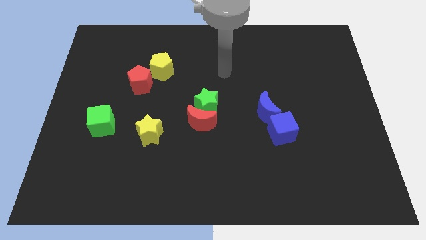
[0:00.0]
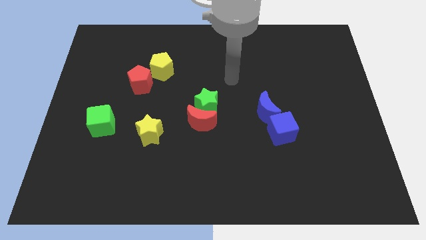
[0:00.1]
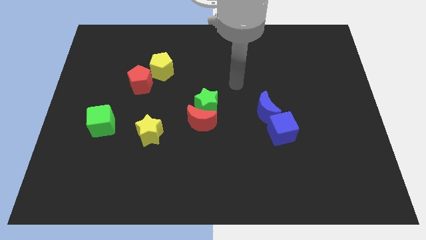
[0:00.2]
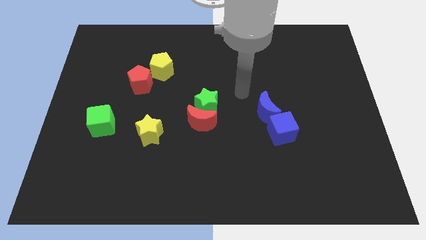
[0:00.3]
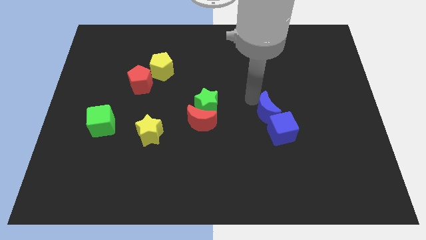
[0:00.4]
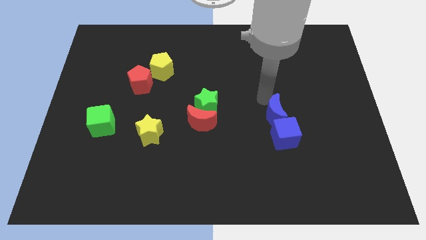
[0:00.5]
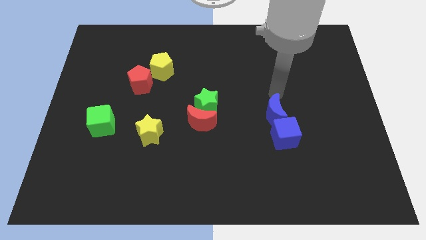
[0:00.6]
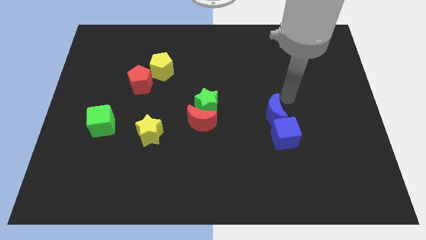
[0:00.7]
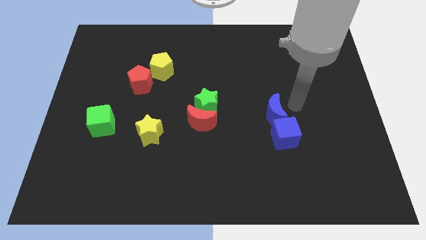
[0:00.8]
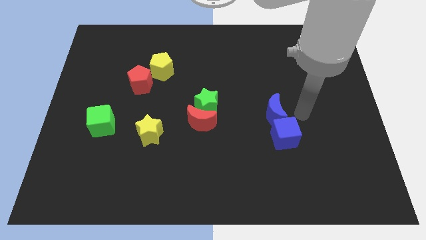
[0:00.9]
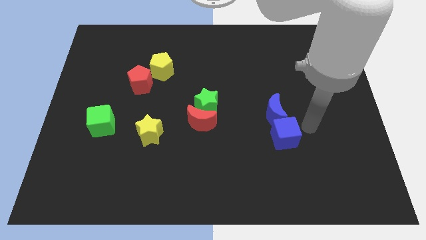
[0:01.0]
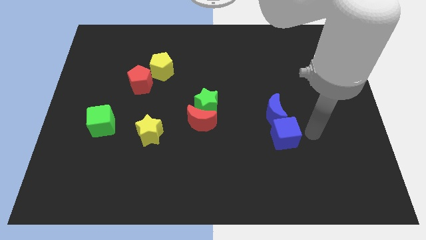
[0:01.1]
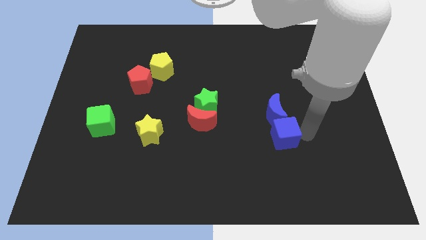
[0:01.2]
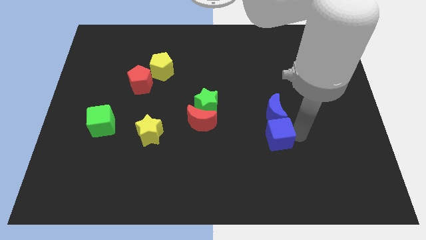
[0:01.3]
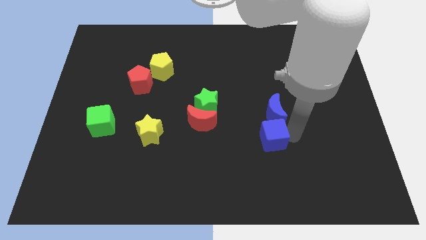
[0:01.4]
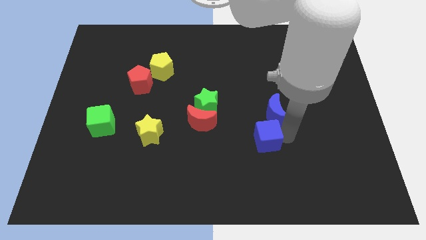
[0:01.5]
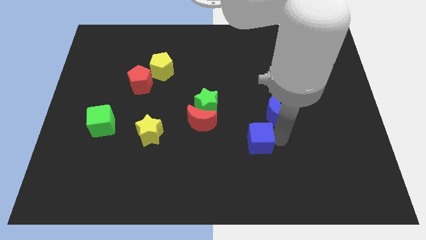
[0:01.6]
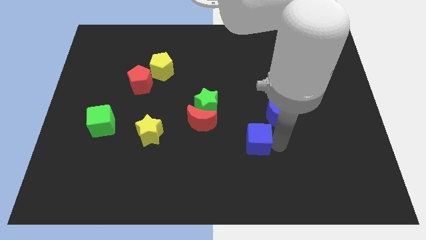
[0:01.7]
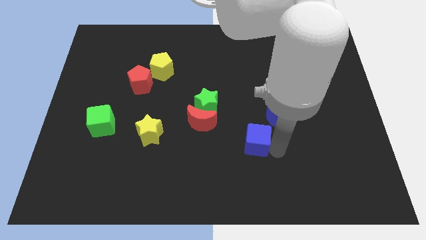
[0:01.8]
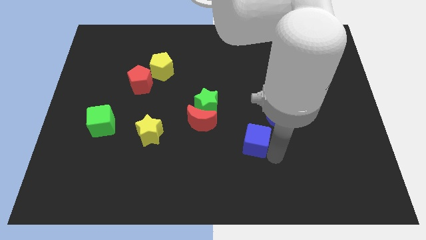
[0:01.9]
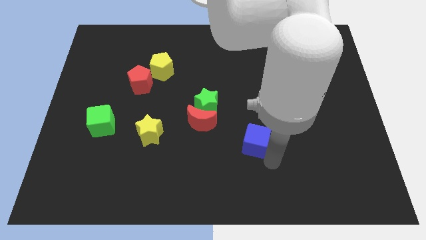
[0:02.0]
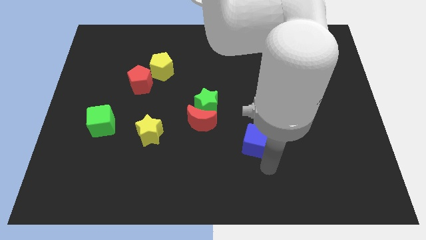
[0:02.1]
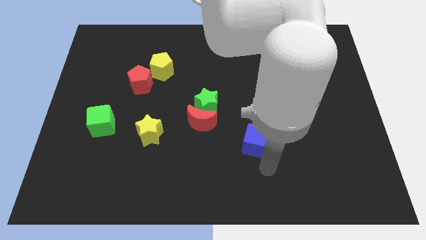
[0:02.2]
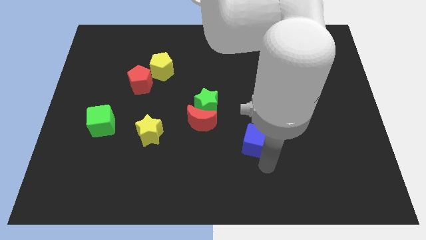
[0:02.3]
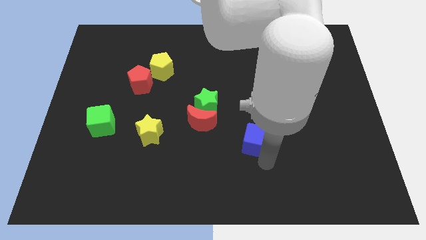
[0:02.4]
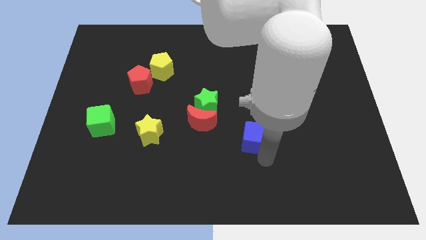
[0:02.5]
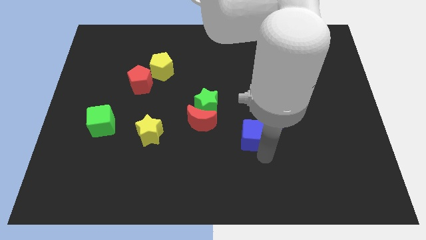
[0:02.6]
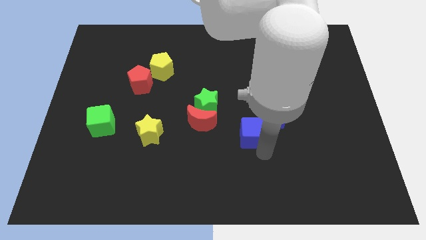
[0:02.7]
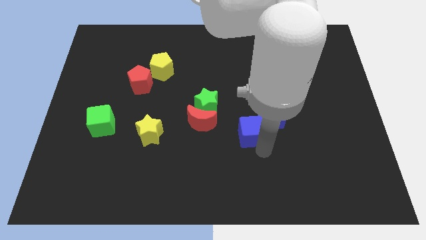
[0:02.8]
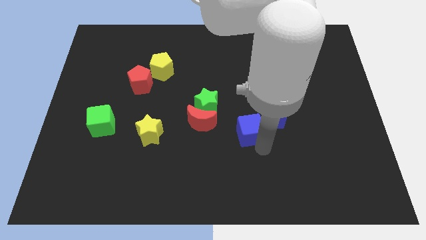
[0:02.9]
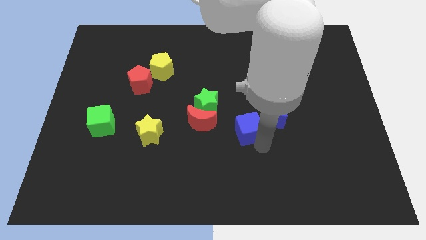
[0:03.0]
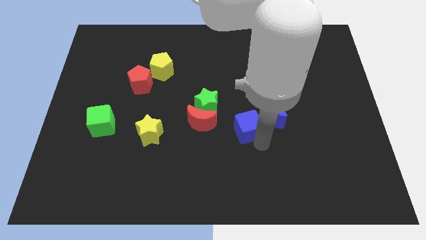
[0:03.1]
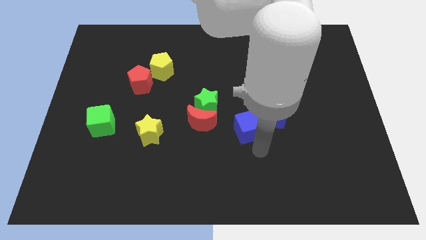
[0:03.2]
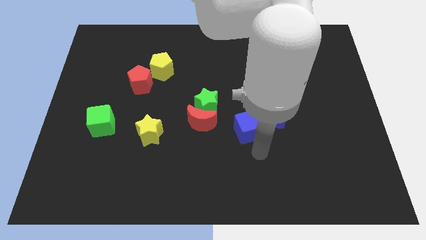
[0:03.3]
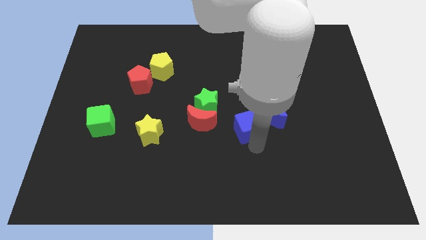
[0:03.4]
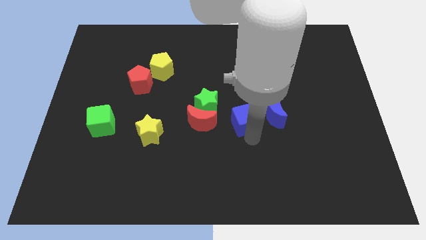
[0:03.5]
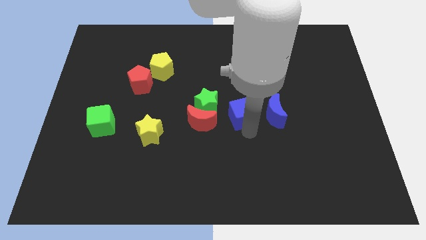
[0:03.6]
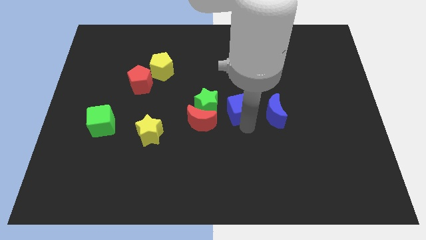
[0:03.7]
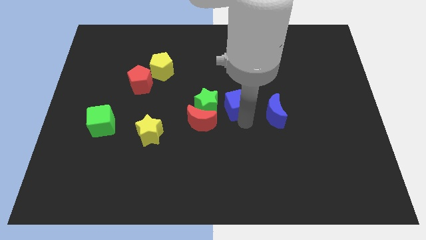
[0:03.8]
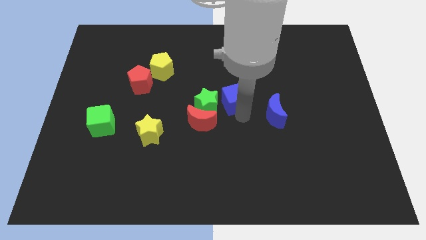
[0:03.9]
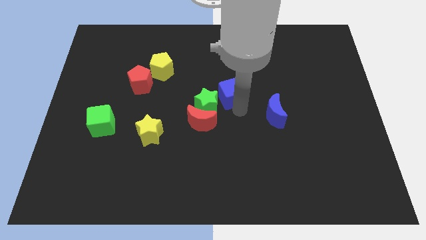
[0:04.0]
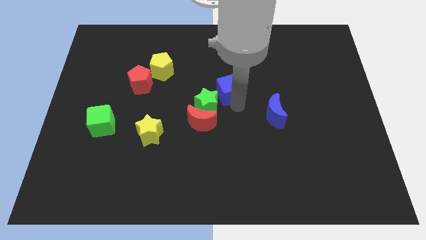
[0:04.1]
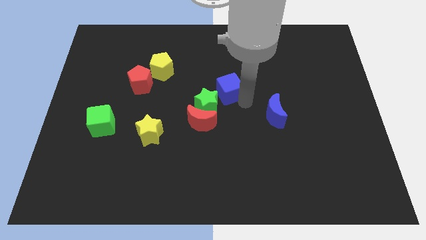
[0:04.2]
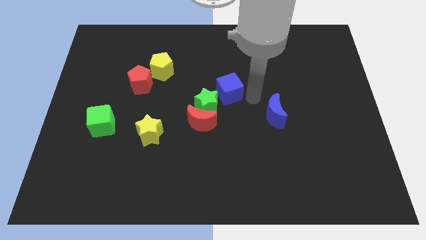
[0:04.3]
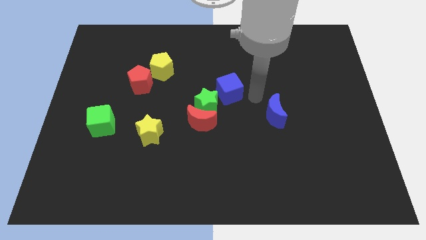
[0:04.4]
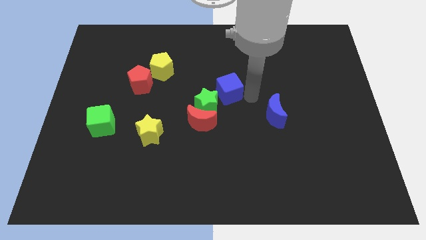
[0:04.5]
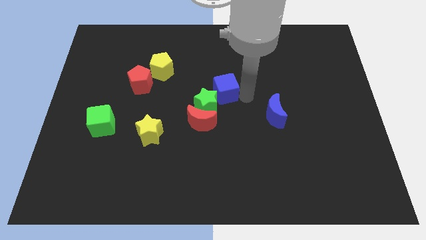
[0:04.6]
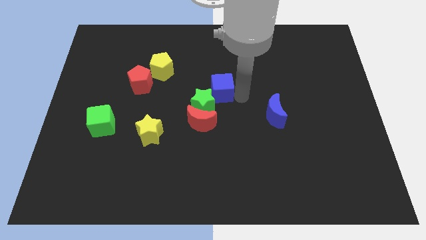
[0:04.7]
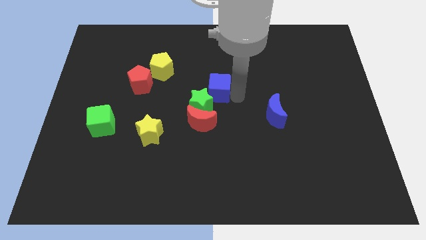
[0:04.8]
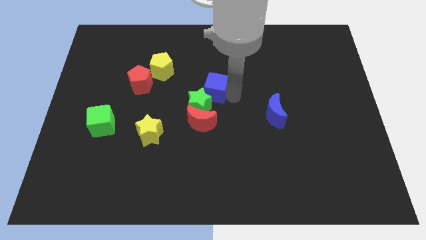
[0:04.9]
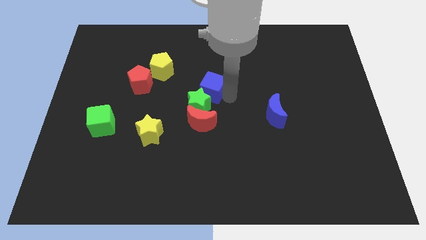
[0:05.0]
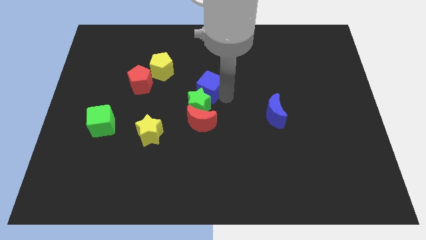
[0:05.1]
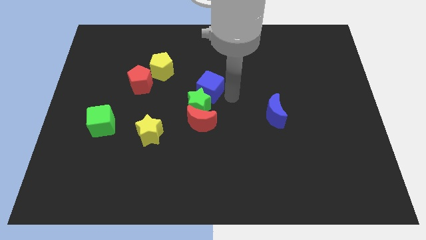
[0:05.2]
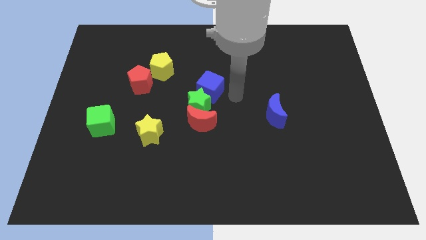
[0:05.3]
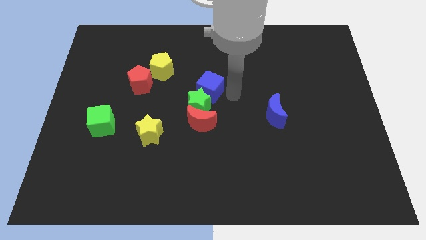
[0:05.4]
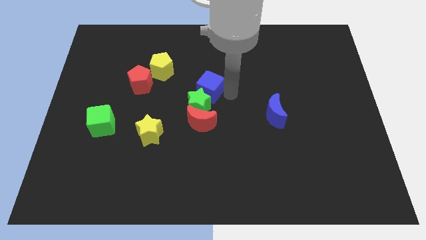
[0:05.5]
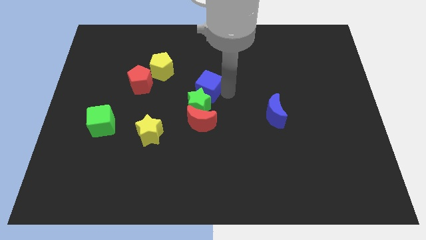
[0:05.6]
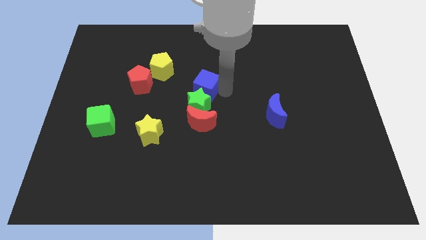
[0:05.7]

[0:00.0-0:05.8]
slide the blue cube just right of the red pentagon

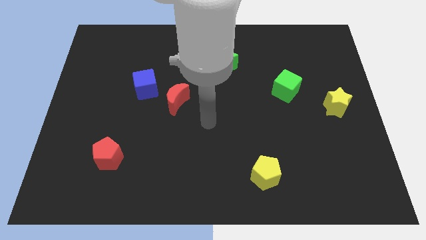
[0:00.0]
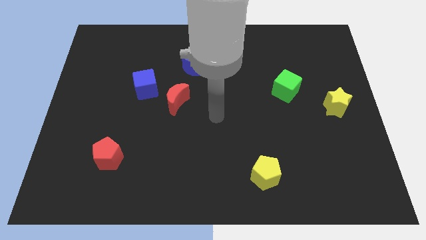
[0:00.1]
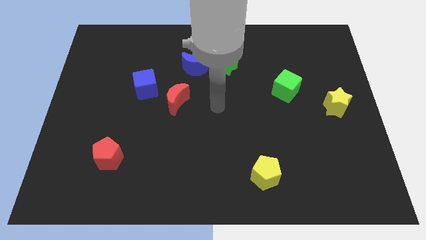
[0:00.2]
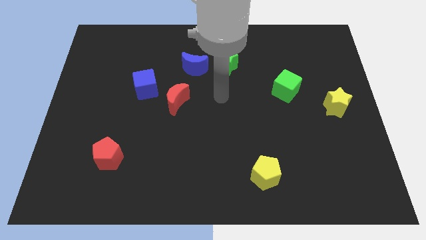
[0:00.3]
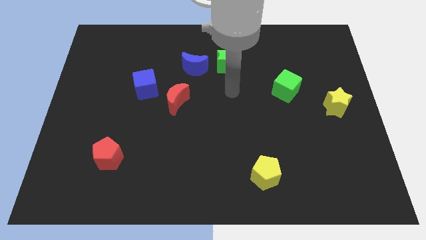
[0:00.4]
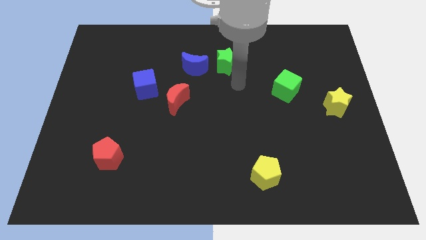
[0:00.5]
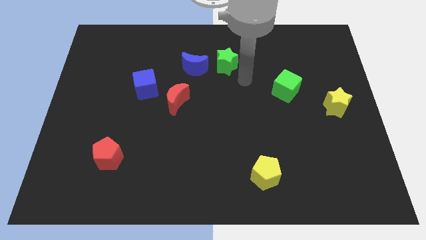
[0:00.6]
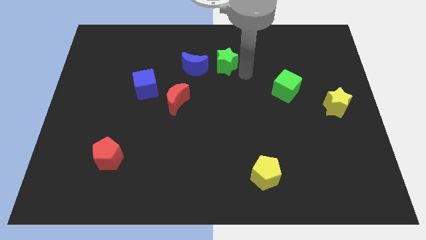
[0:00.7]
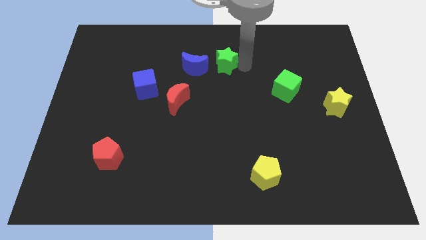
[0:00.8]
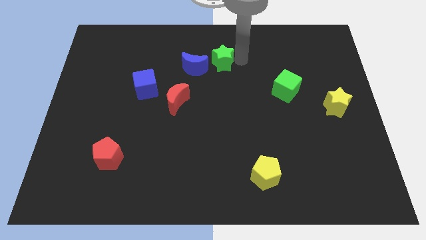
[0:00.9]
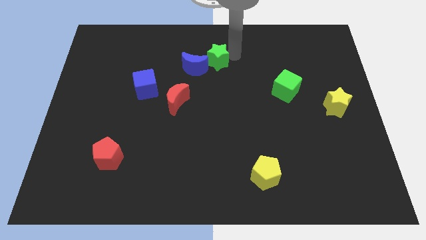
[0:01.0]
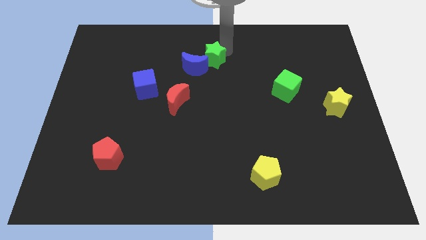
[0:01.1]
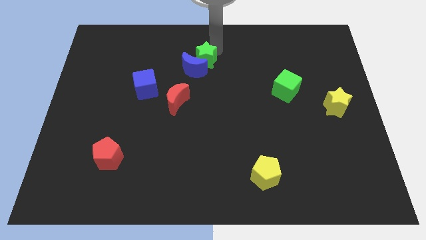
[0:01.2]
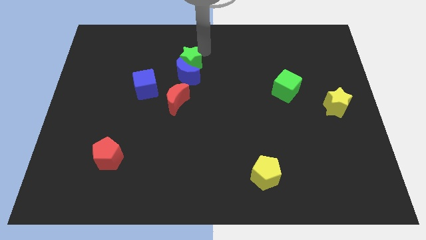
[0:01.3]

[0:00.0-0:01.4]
put the blue moon to the right of the blue cube
